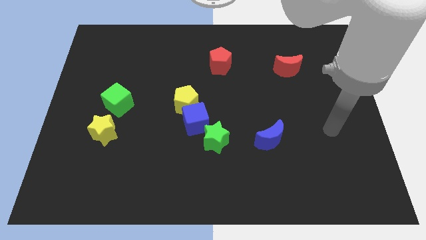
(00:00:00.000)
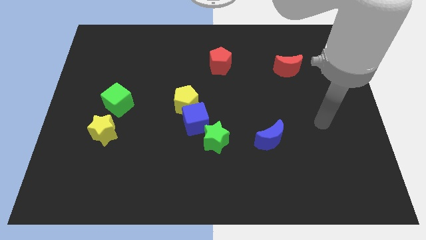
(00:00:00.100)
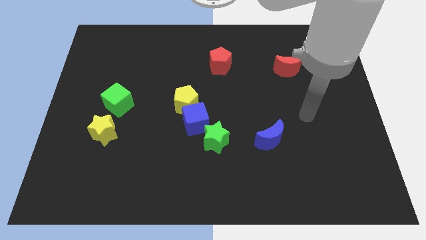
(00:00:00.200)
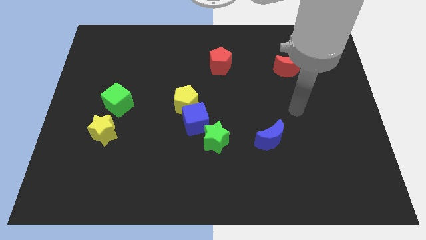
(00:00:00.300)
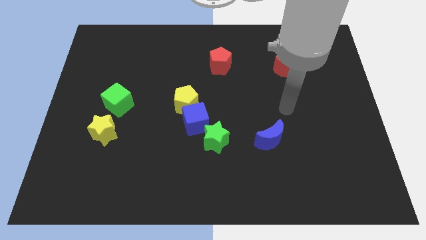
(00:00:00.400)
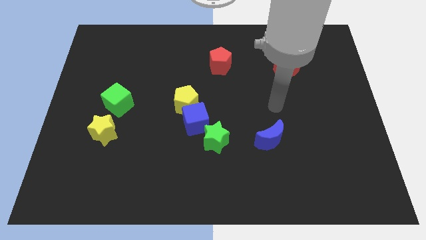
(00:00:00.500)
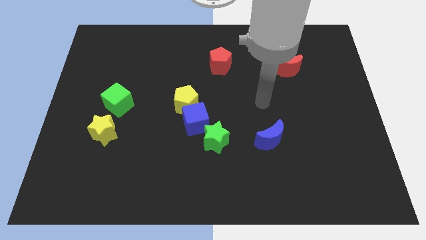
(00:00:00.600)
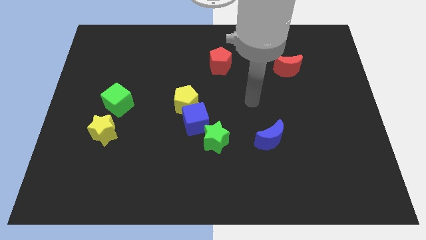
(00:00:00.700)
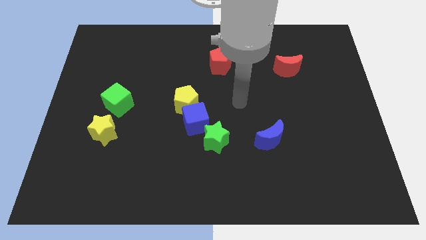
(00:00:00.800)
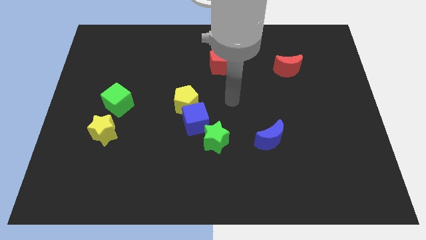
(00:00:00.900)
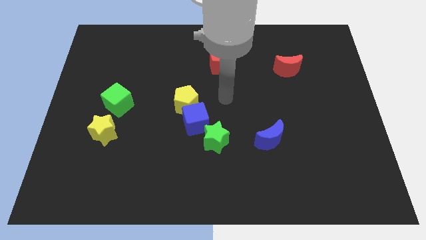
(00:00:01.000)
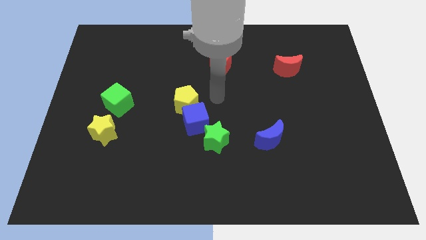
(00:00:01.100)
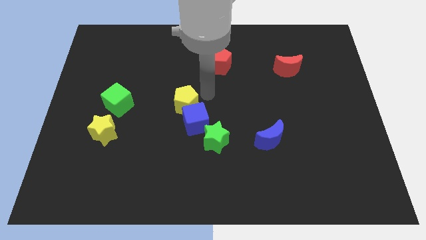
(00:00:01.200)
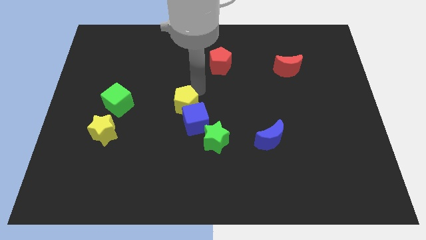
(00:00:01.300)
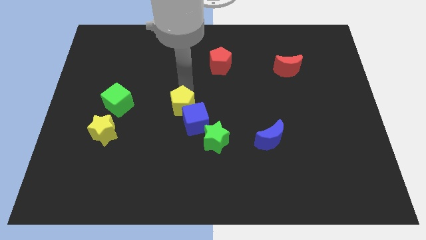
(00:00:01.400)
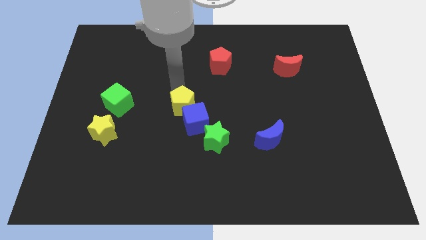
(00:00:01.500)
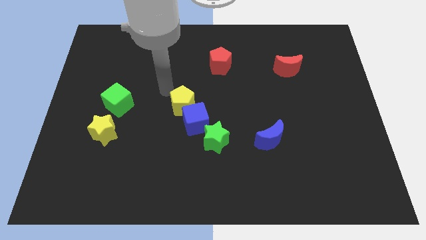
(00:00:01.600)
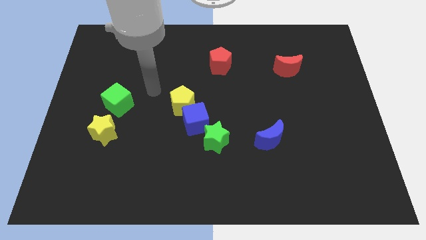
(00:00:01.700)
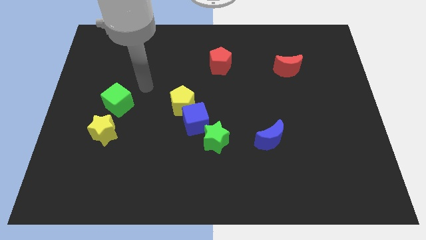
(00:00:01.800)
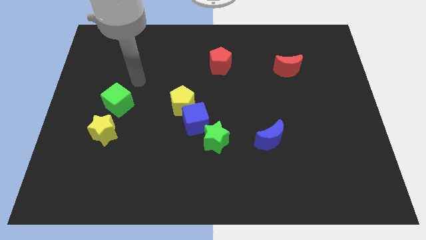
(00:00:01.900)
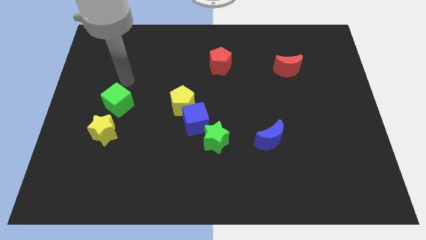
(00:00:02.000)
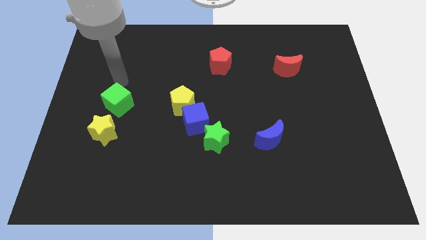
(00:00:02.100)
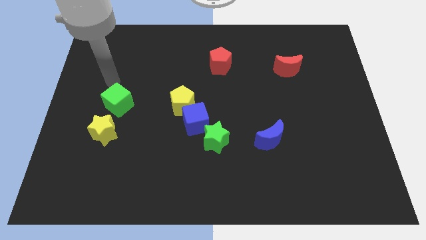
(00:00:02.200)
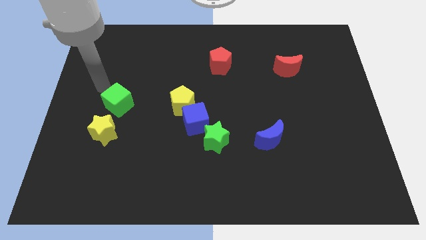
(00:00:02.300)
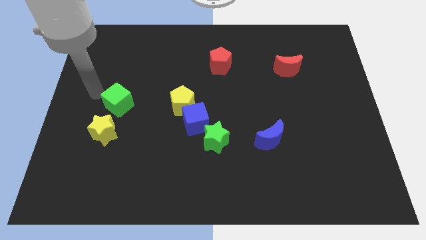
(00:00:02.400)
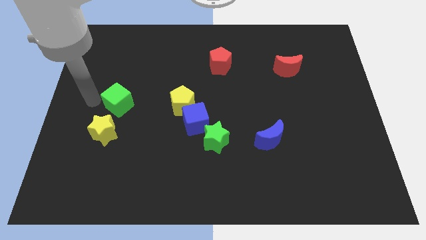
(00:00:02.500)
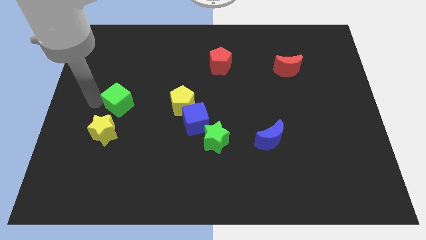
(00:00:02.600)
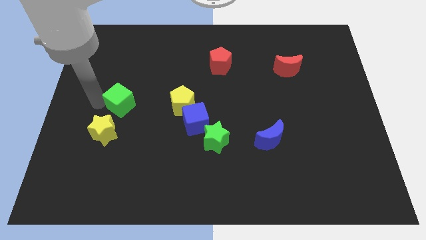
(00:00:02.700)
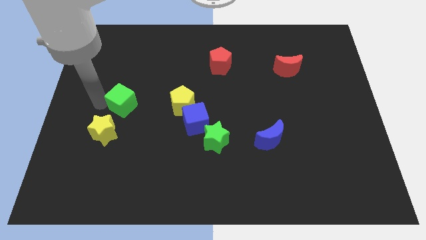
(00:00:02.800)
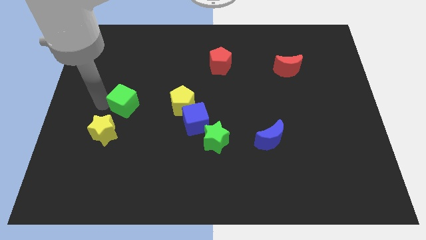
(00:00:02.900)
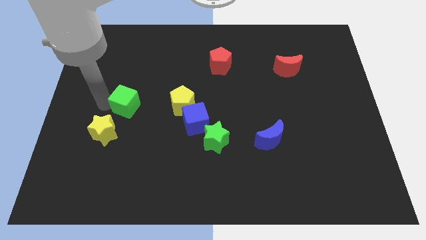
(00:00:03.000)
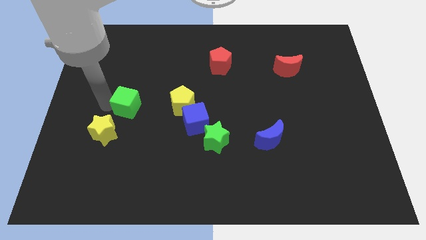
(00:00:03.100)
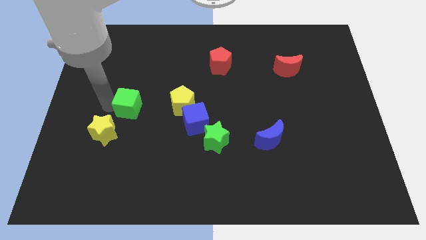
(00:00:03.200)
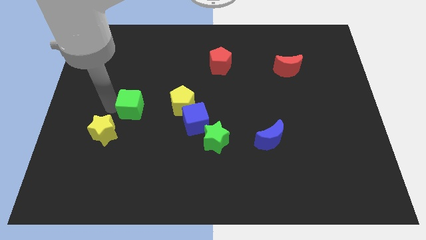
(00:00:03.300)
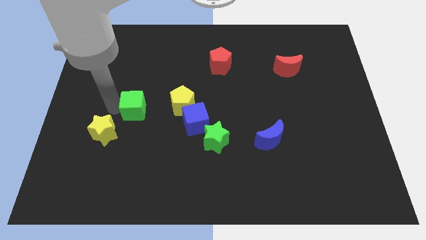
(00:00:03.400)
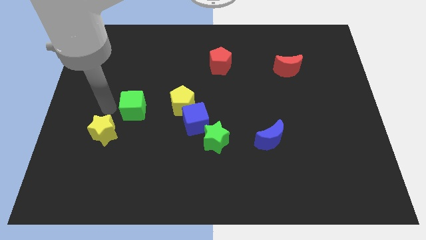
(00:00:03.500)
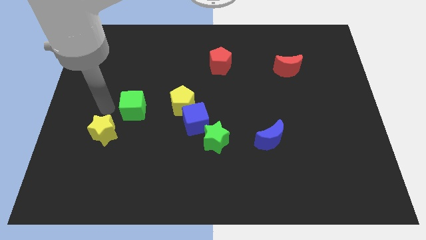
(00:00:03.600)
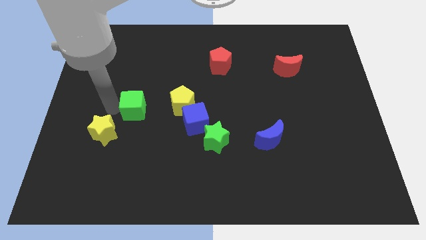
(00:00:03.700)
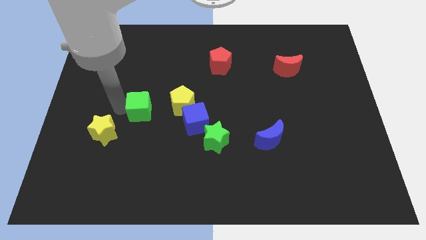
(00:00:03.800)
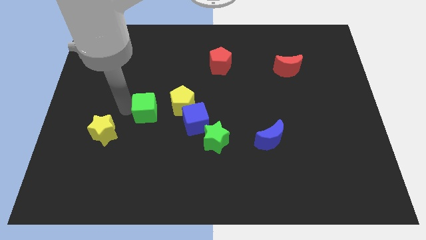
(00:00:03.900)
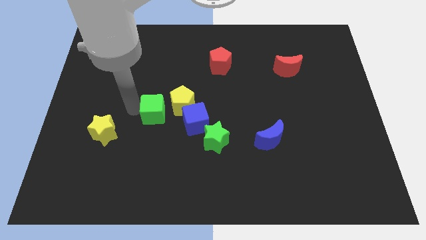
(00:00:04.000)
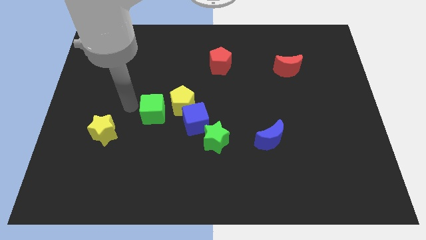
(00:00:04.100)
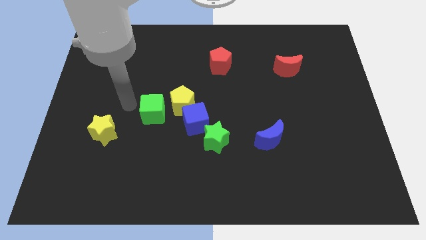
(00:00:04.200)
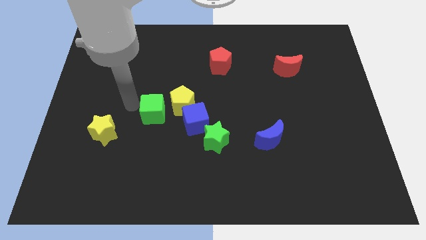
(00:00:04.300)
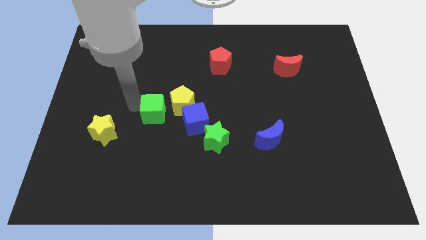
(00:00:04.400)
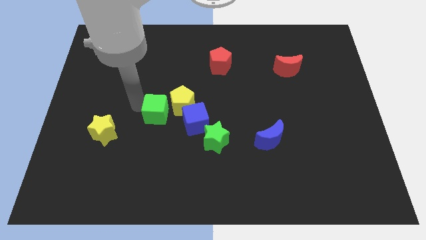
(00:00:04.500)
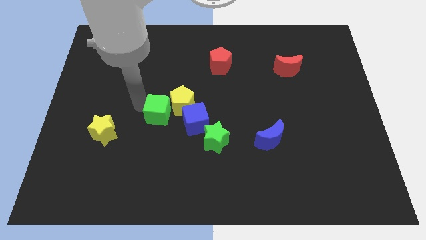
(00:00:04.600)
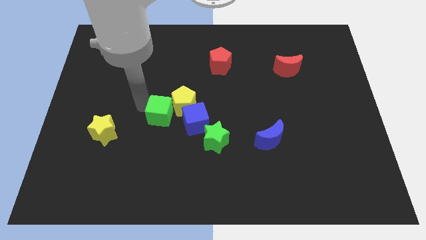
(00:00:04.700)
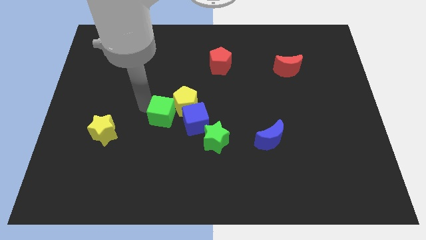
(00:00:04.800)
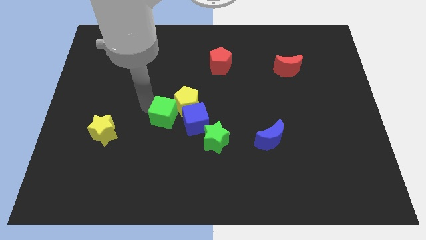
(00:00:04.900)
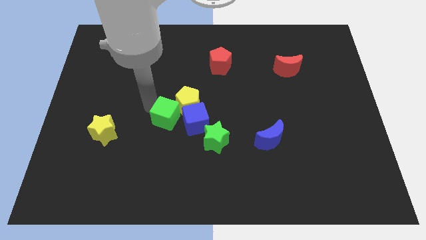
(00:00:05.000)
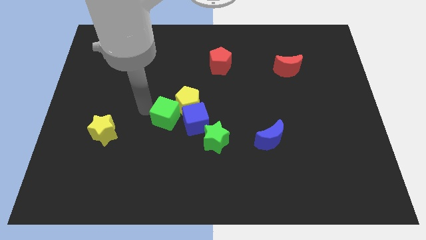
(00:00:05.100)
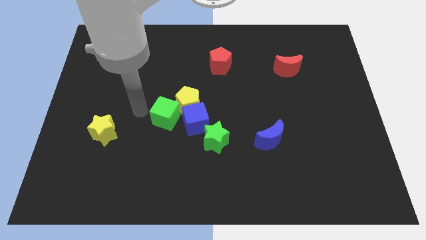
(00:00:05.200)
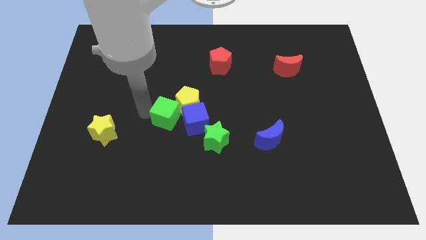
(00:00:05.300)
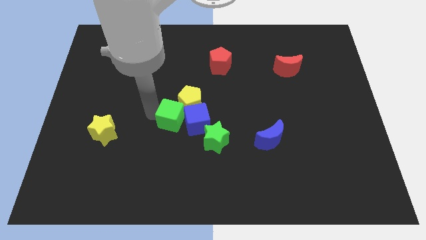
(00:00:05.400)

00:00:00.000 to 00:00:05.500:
move the green cube next to the blue cube

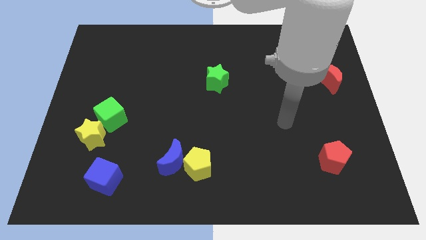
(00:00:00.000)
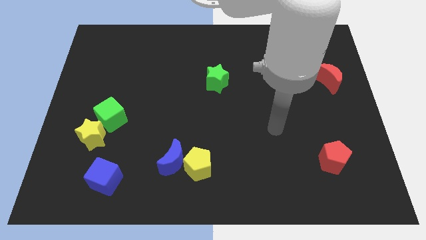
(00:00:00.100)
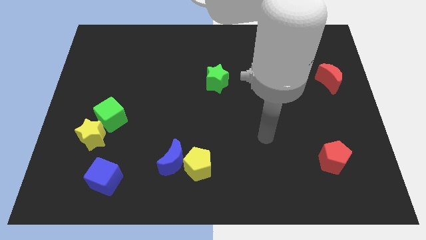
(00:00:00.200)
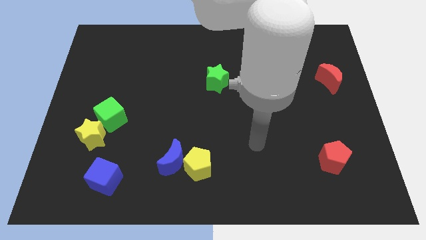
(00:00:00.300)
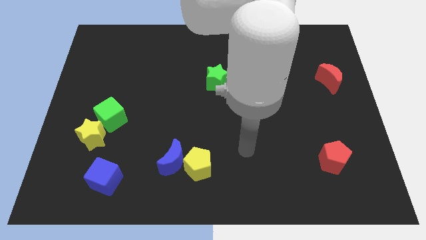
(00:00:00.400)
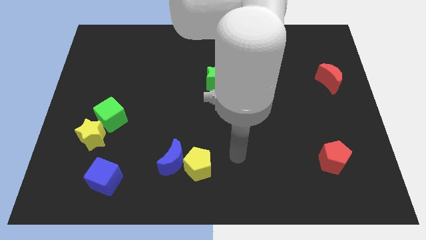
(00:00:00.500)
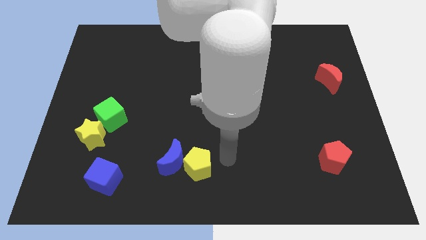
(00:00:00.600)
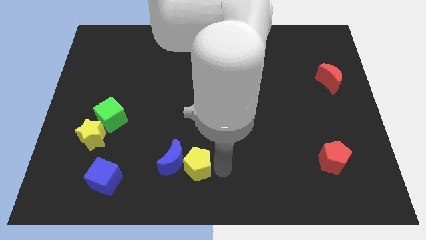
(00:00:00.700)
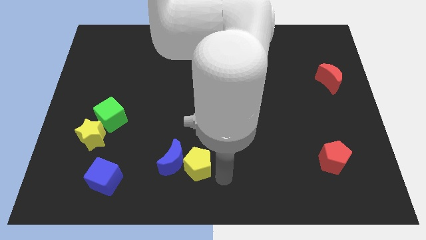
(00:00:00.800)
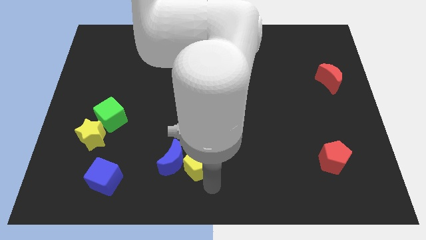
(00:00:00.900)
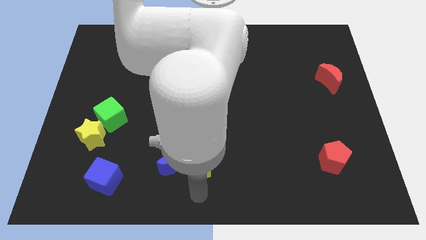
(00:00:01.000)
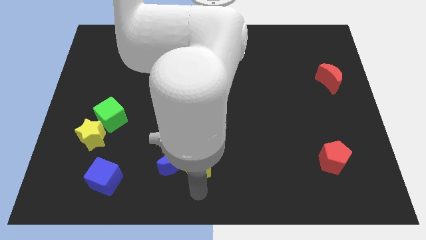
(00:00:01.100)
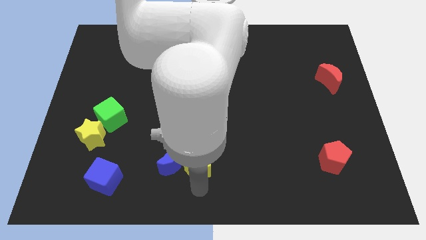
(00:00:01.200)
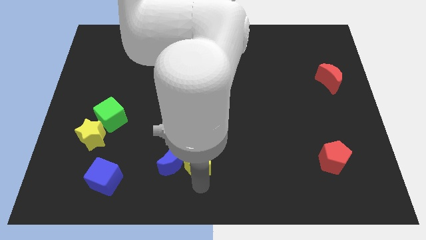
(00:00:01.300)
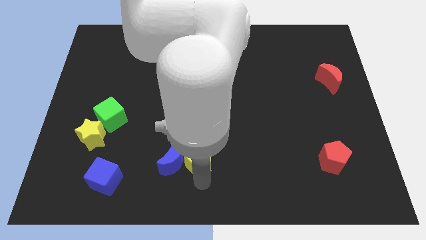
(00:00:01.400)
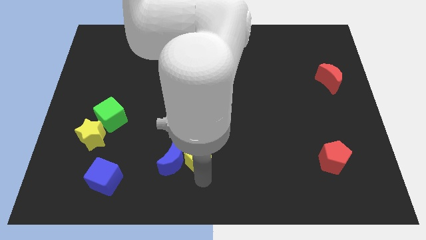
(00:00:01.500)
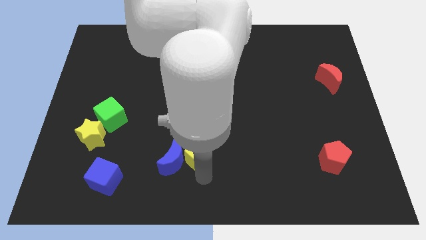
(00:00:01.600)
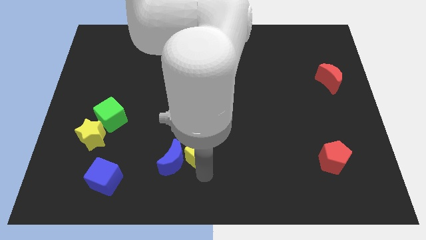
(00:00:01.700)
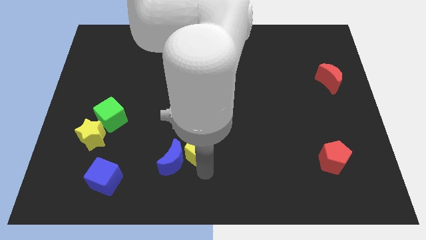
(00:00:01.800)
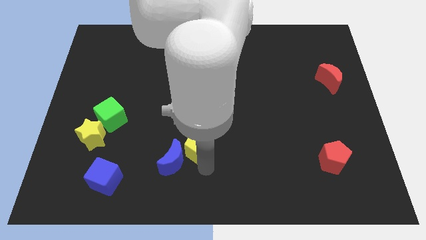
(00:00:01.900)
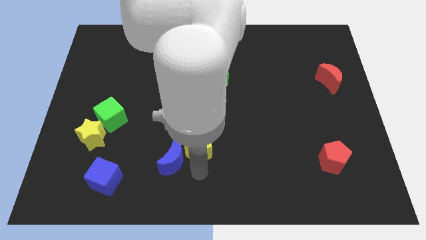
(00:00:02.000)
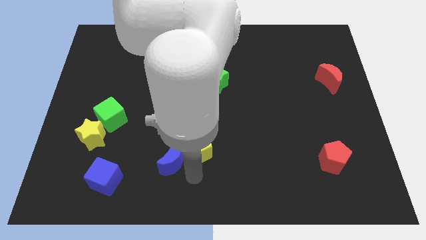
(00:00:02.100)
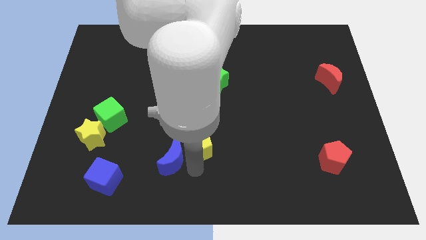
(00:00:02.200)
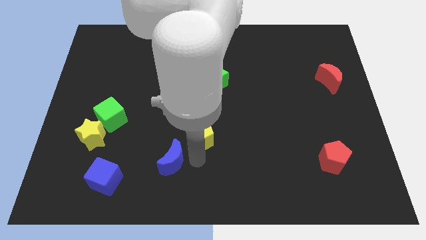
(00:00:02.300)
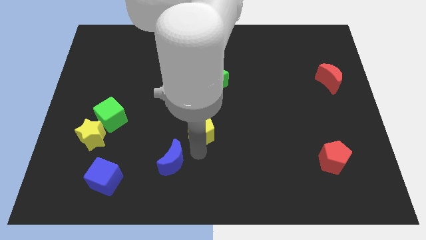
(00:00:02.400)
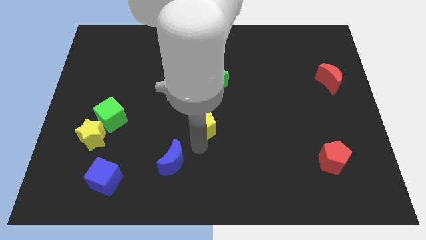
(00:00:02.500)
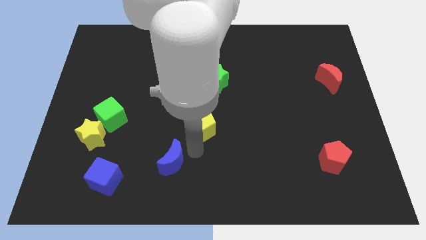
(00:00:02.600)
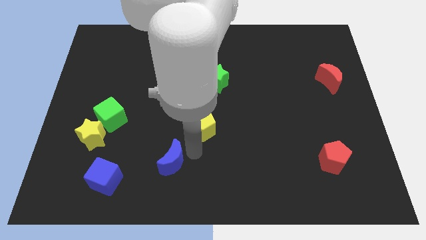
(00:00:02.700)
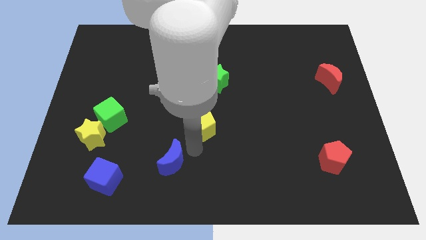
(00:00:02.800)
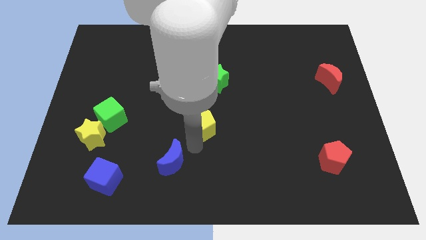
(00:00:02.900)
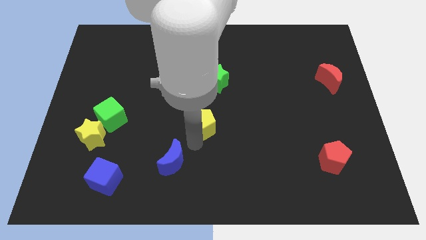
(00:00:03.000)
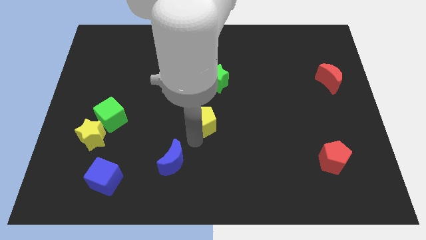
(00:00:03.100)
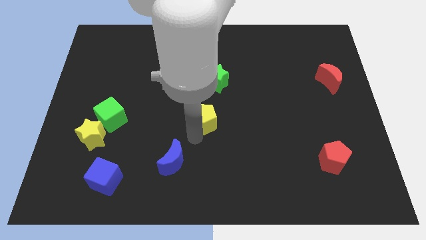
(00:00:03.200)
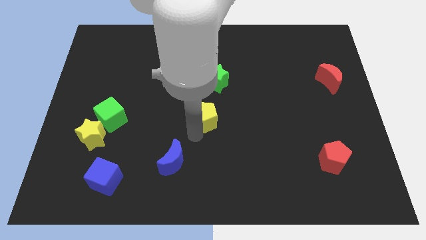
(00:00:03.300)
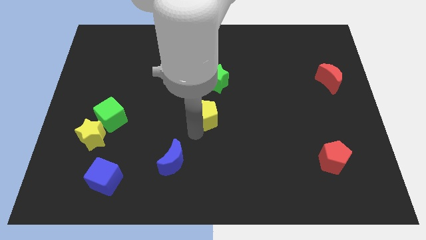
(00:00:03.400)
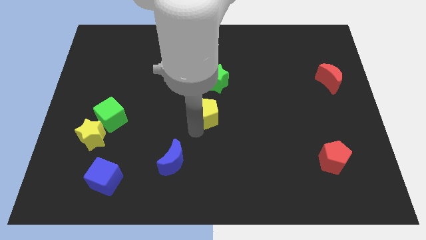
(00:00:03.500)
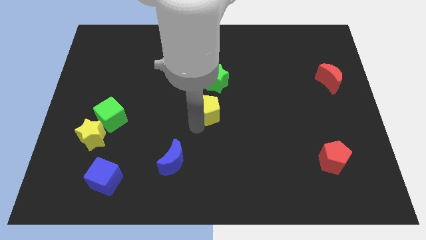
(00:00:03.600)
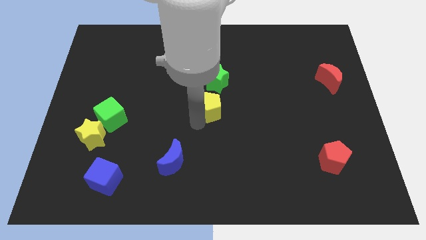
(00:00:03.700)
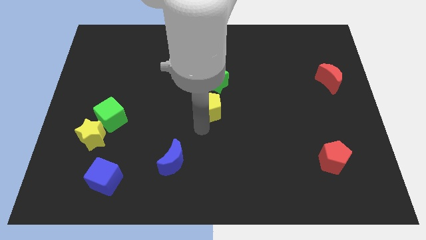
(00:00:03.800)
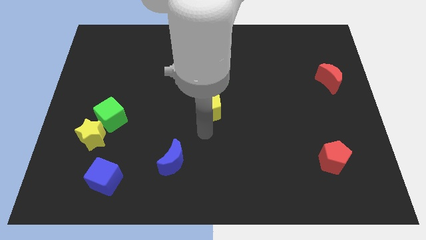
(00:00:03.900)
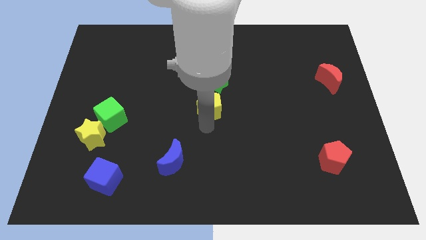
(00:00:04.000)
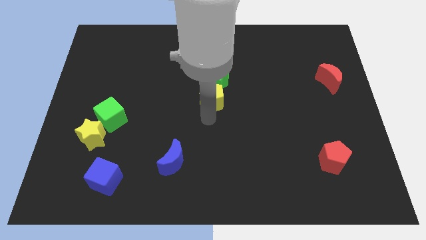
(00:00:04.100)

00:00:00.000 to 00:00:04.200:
slide the yellow pentagon to the green star
